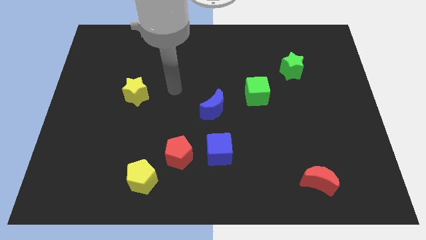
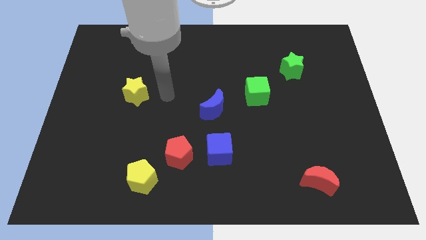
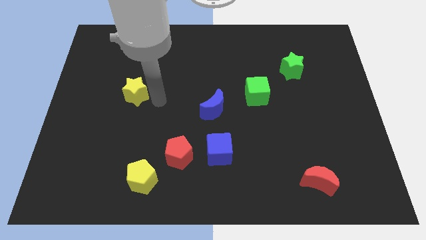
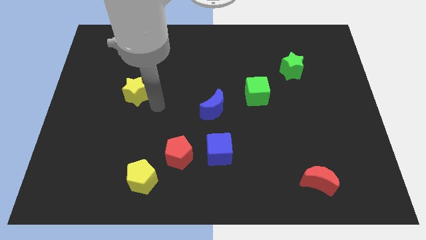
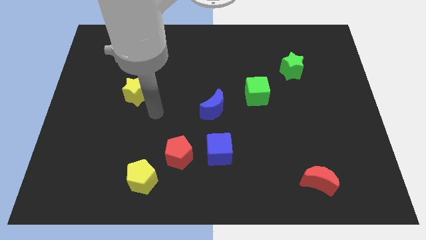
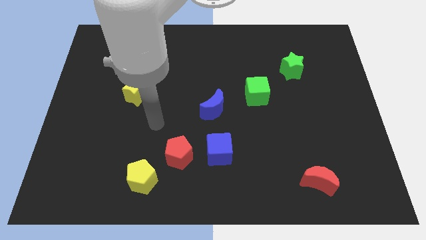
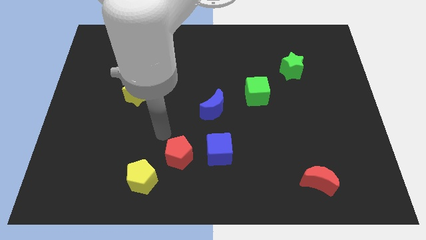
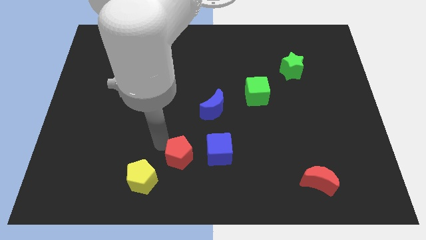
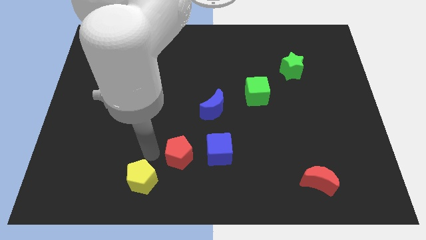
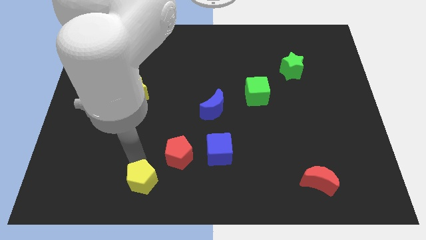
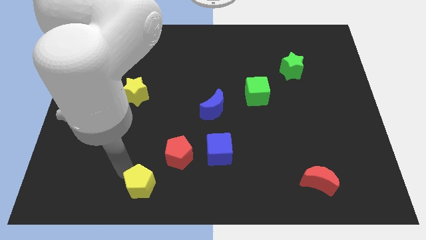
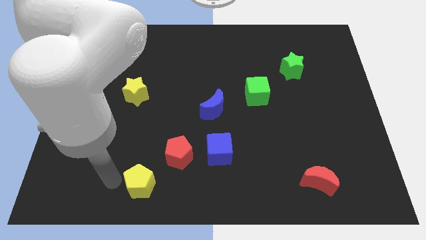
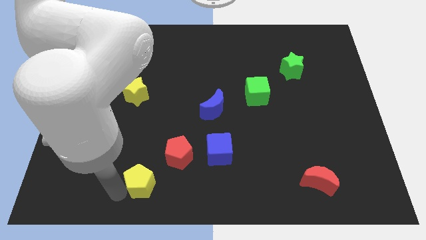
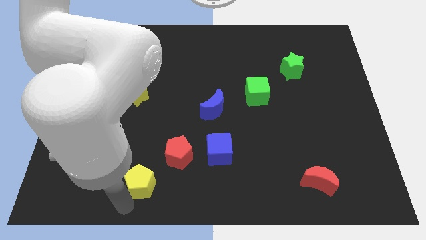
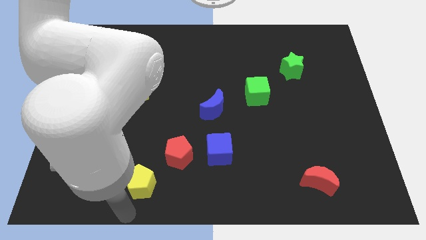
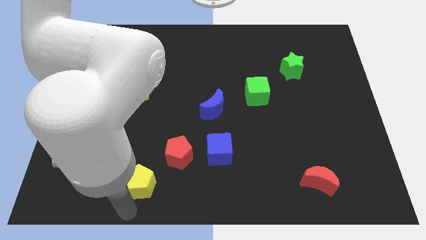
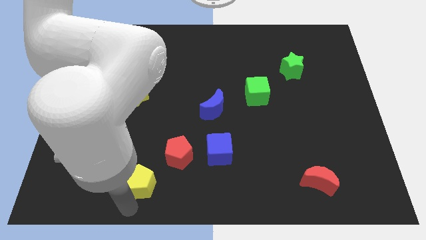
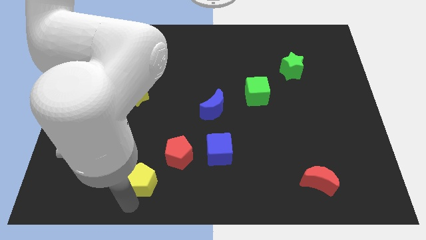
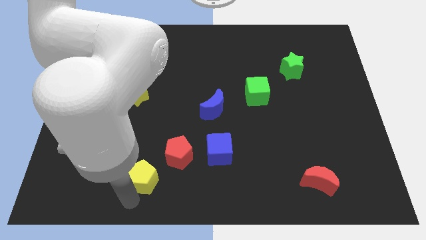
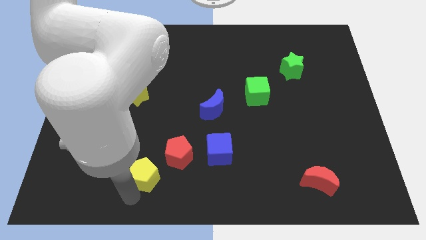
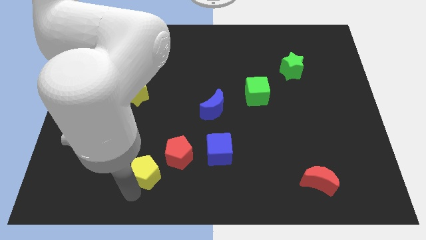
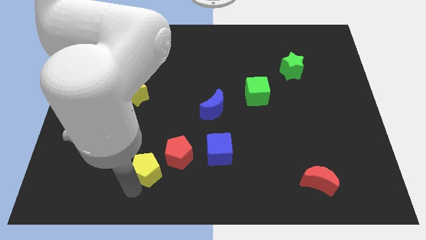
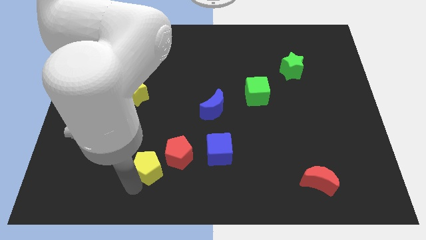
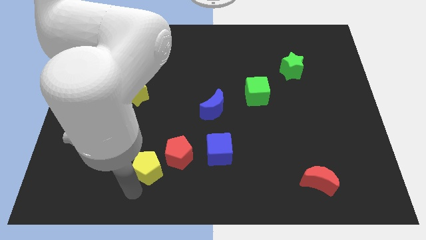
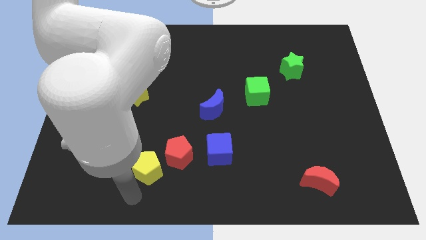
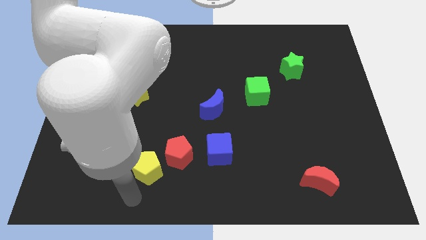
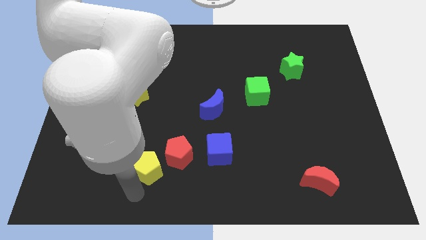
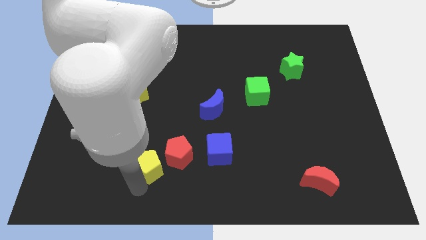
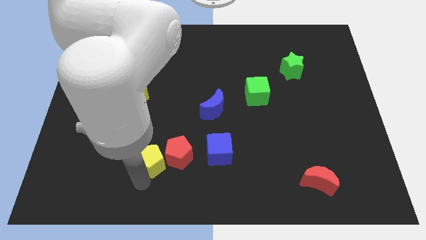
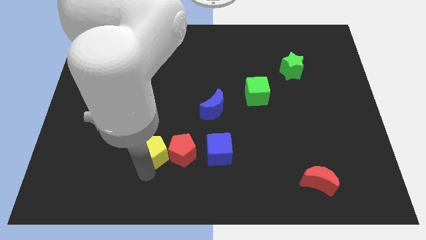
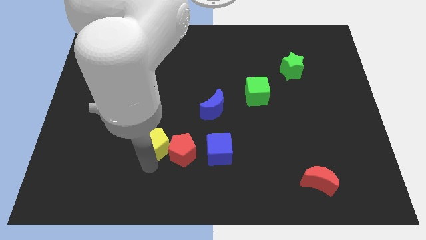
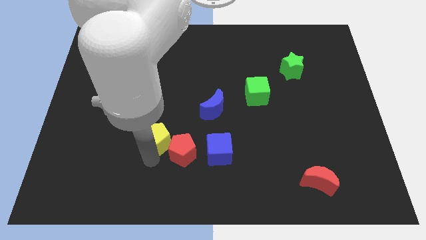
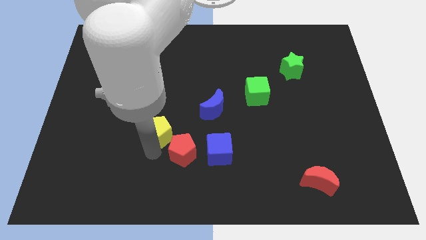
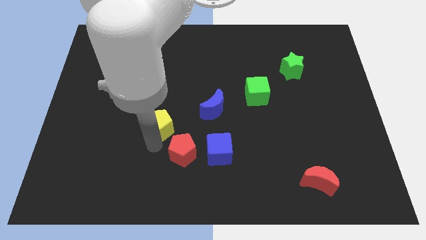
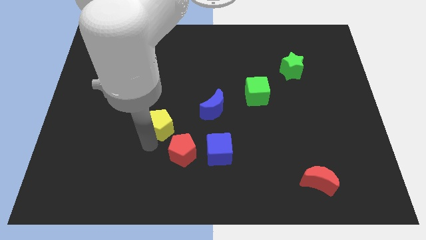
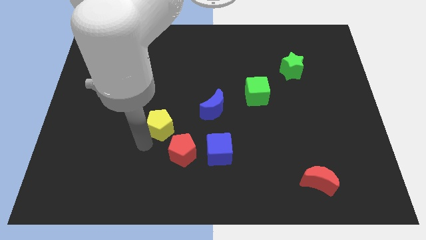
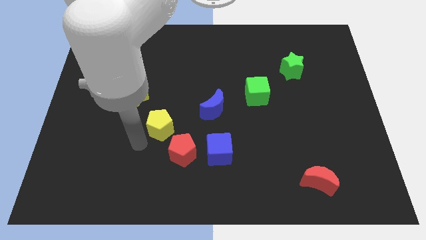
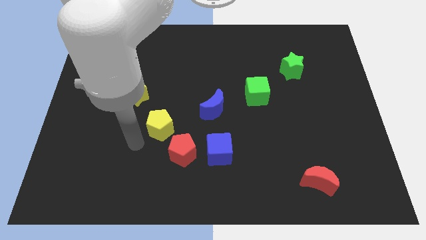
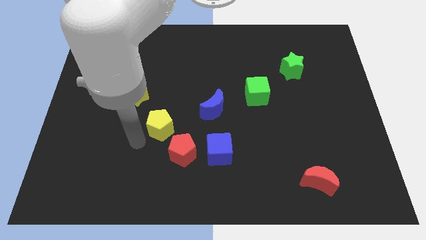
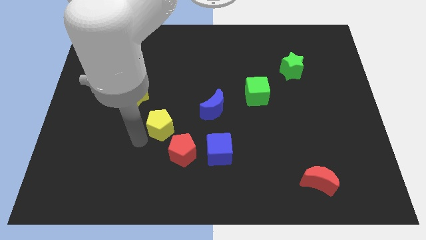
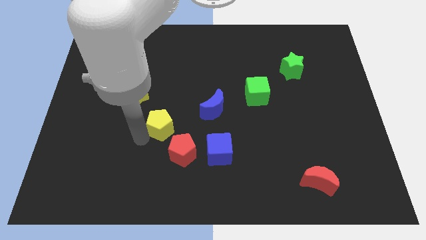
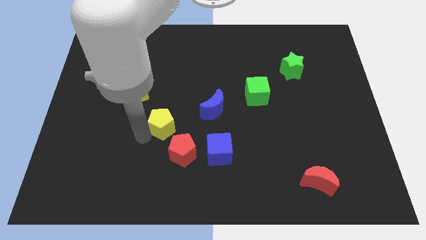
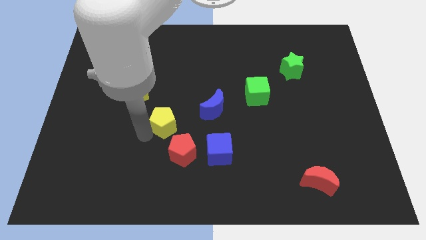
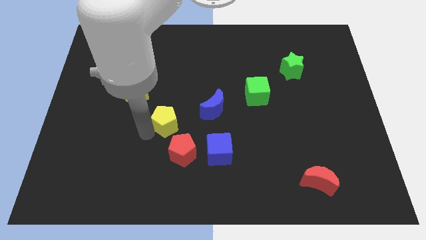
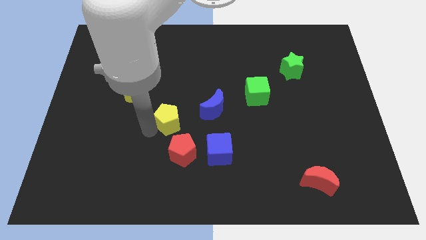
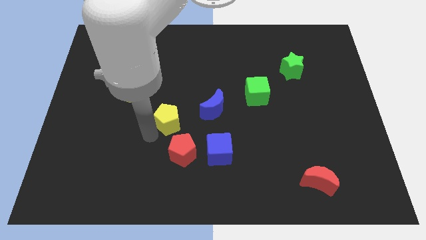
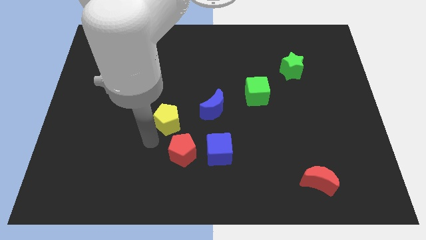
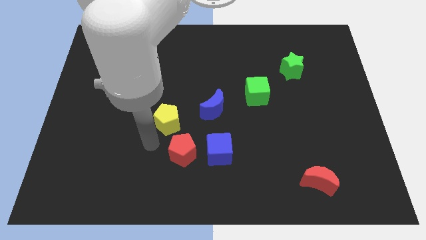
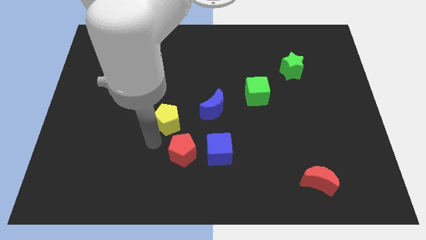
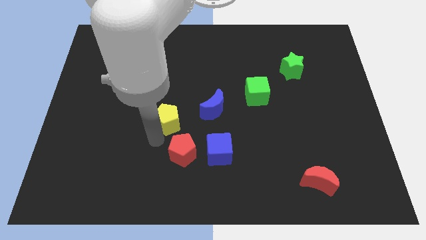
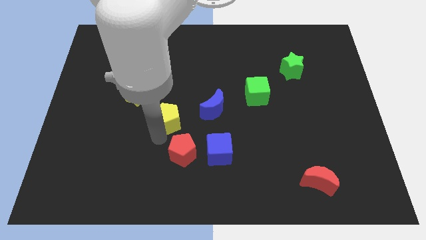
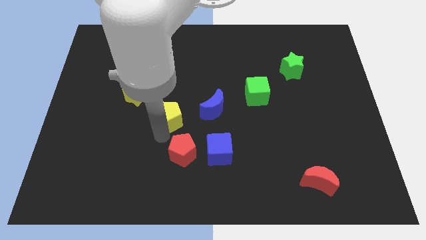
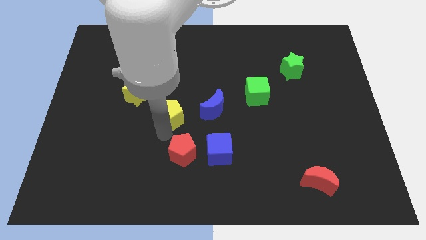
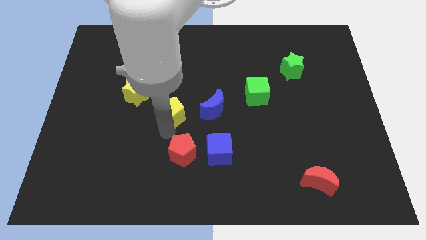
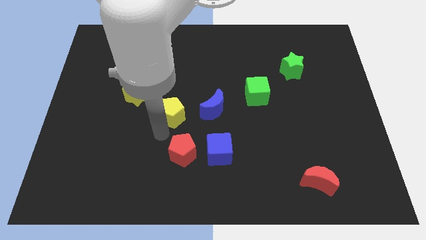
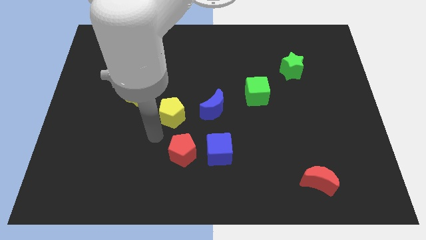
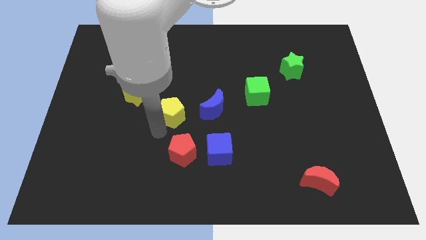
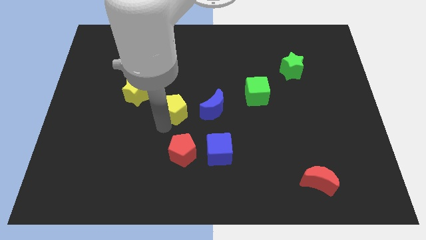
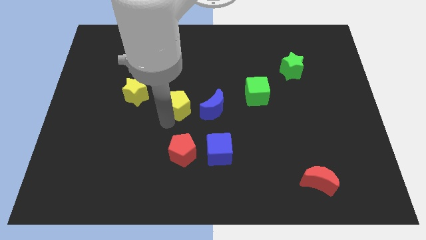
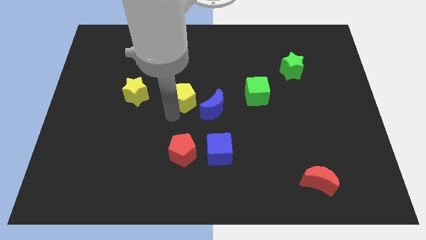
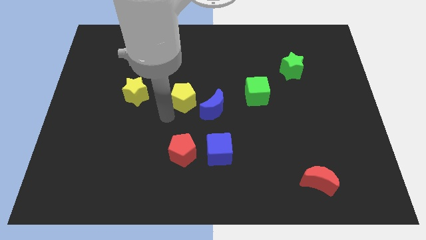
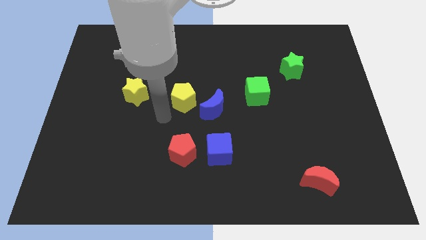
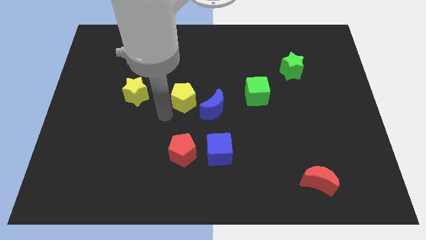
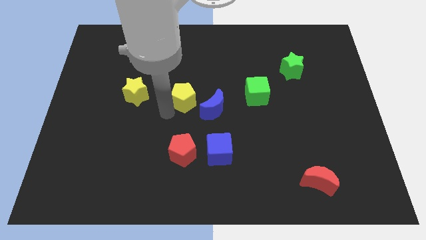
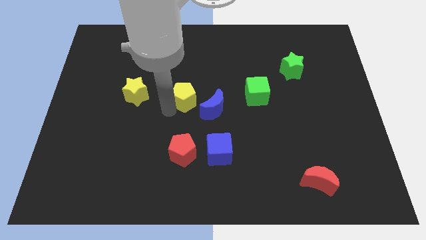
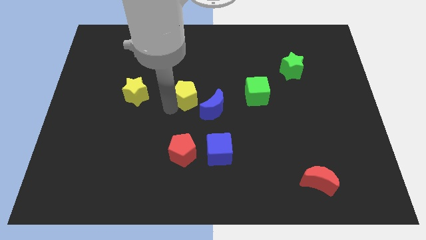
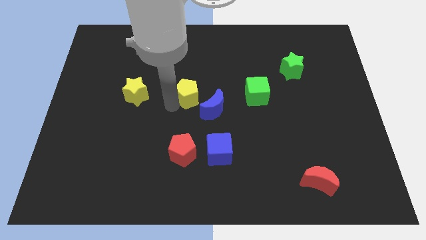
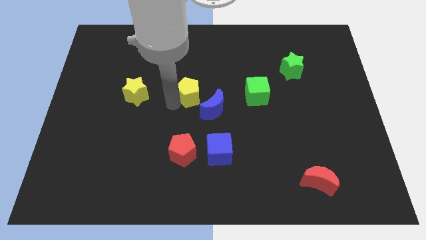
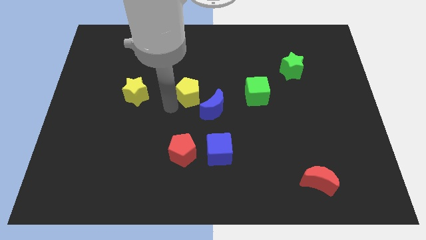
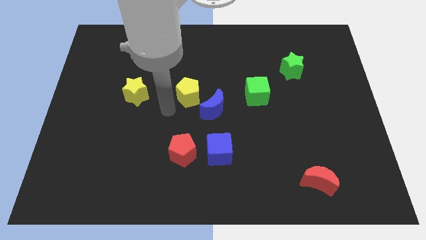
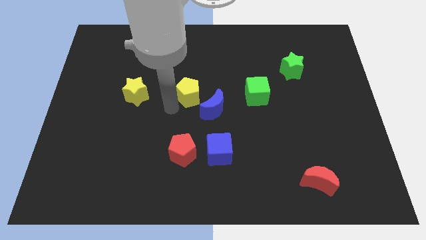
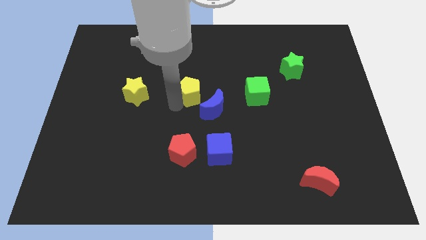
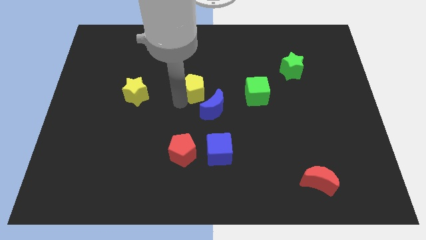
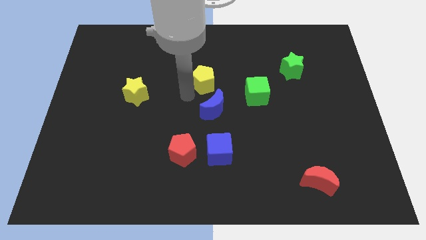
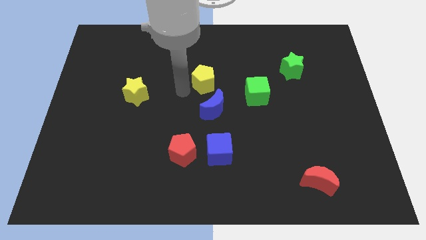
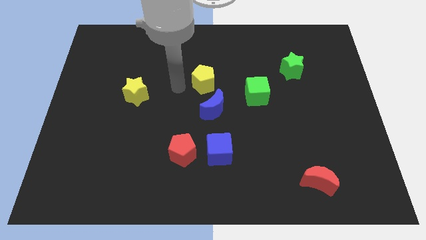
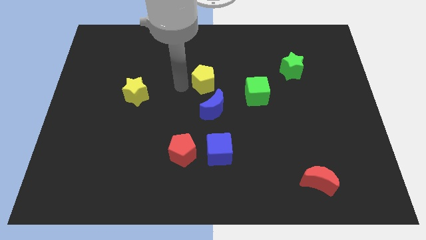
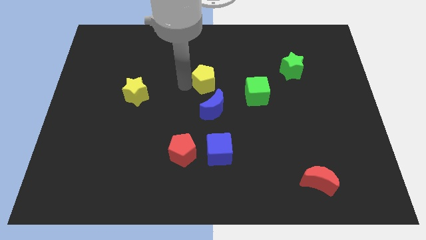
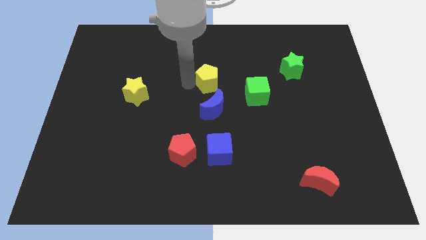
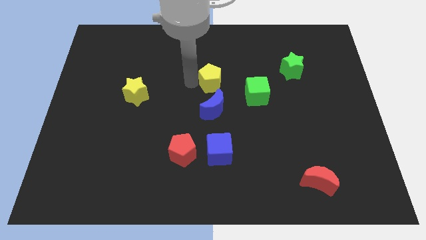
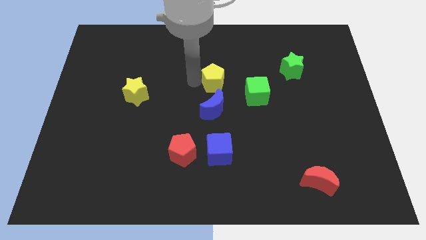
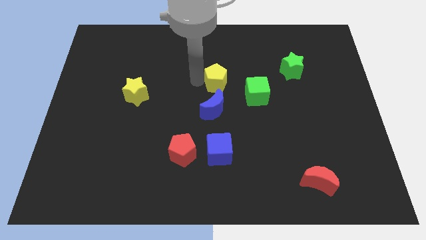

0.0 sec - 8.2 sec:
put the yellow pentagon diagonally up and to the left of the green cube
